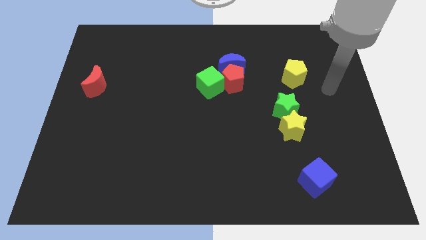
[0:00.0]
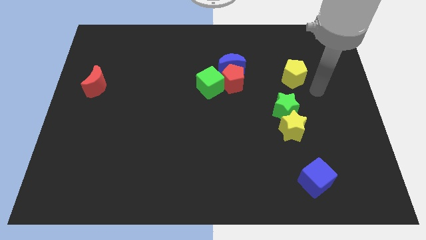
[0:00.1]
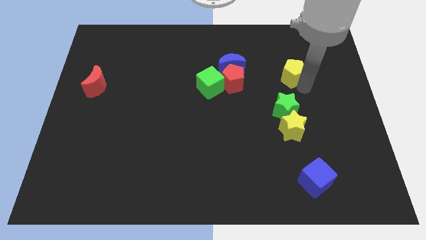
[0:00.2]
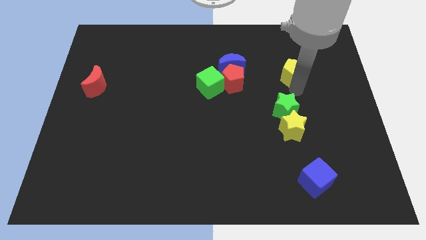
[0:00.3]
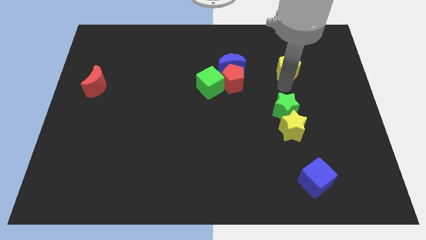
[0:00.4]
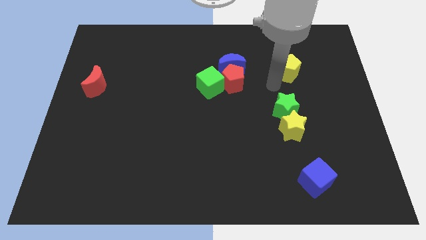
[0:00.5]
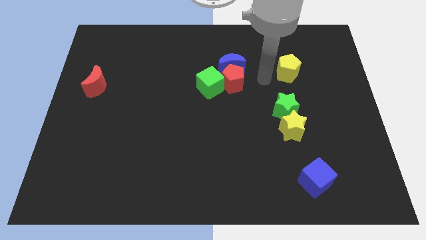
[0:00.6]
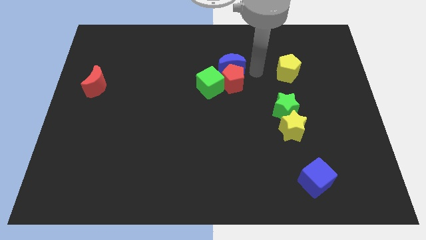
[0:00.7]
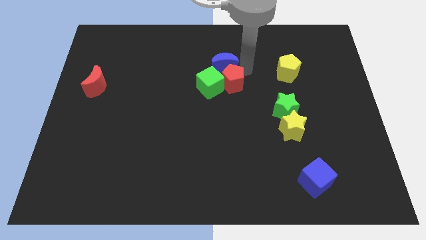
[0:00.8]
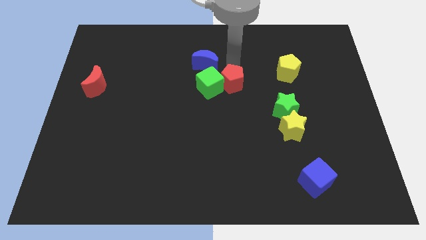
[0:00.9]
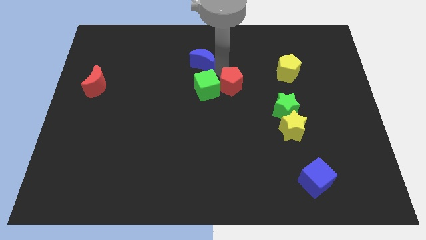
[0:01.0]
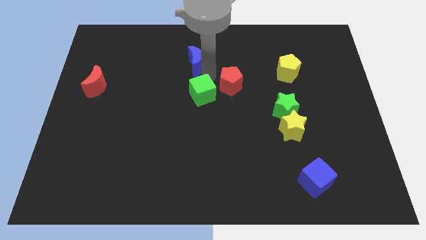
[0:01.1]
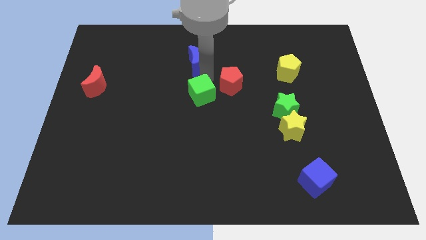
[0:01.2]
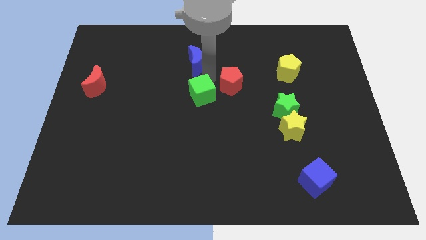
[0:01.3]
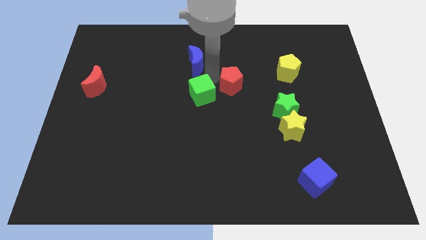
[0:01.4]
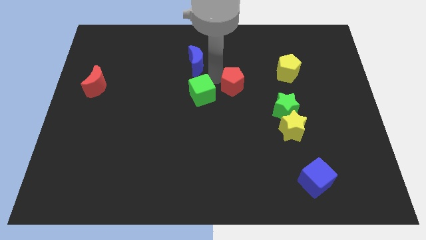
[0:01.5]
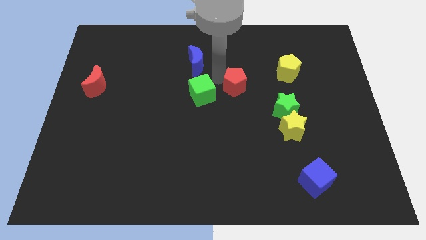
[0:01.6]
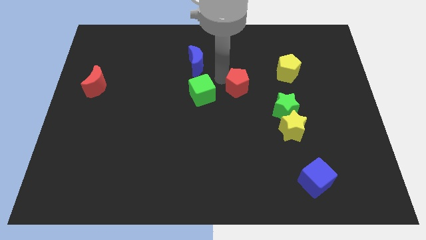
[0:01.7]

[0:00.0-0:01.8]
separate the red pentagon from the blue moon and green cube

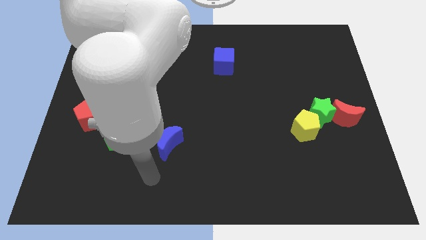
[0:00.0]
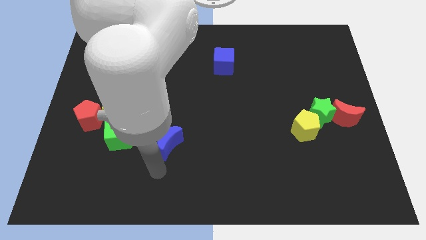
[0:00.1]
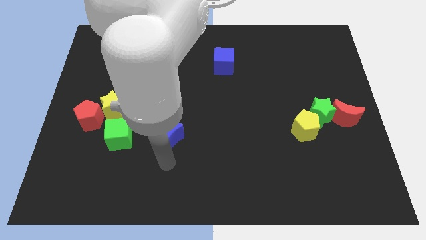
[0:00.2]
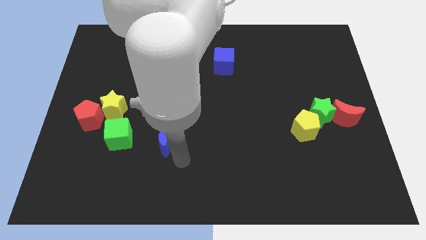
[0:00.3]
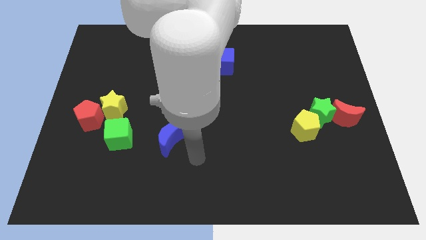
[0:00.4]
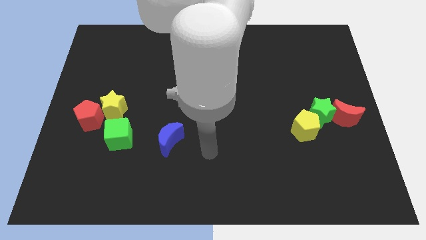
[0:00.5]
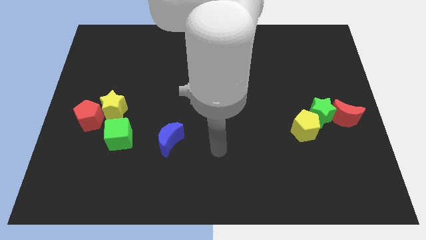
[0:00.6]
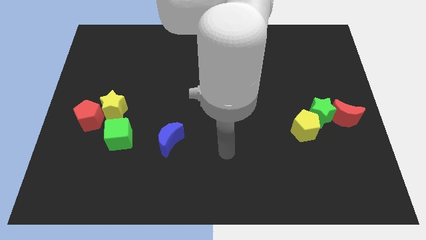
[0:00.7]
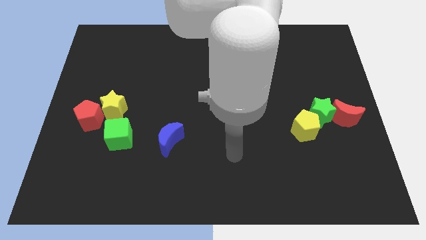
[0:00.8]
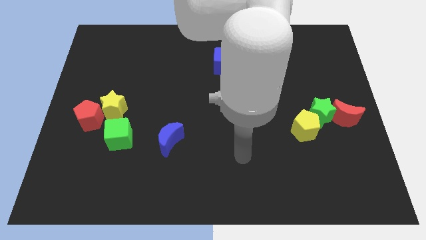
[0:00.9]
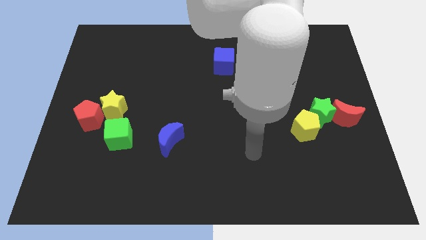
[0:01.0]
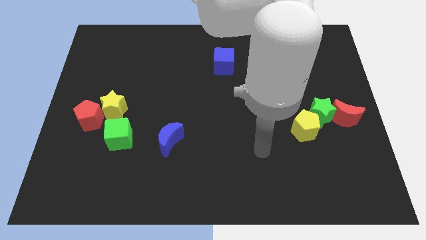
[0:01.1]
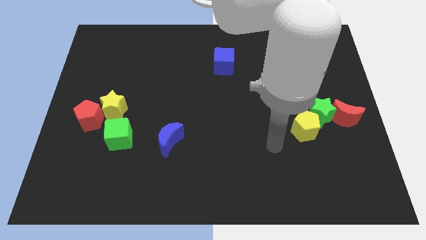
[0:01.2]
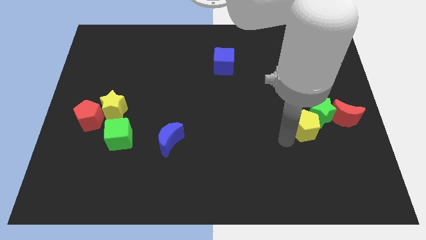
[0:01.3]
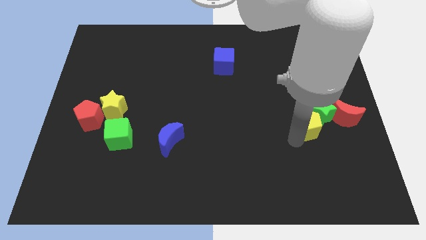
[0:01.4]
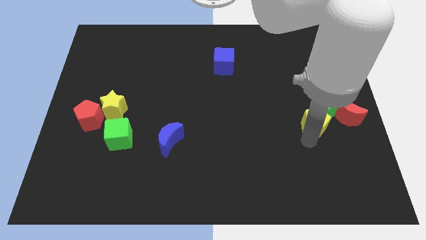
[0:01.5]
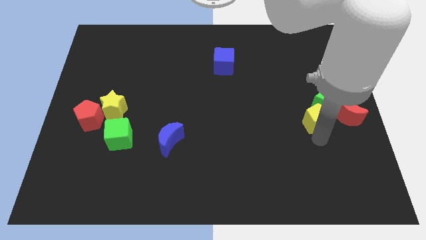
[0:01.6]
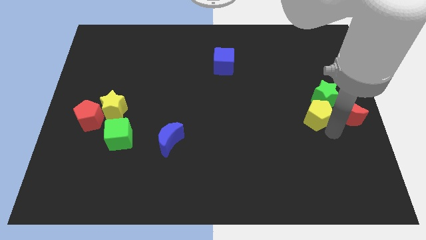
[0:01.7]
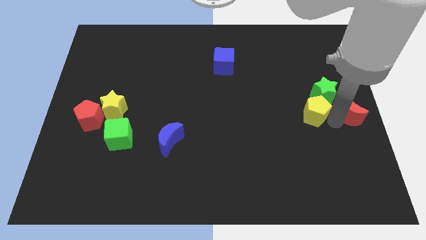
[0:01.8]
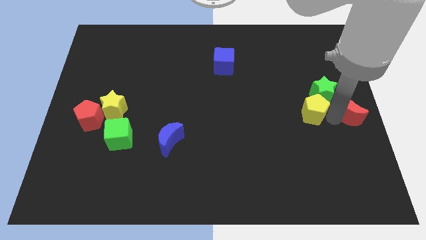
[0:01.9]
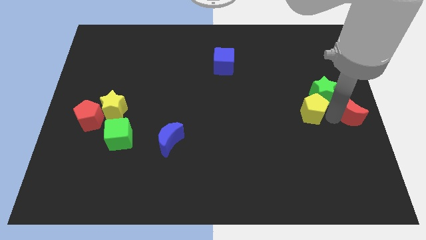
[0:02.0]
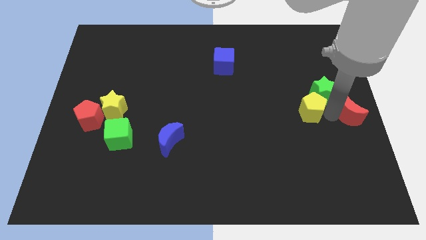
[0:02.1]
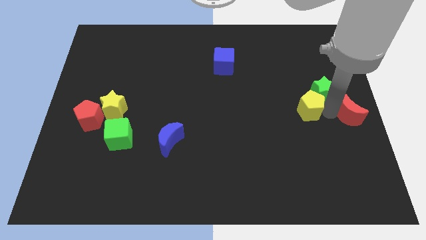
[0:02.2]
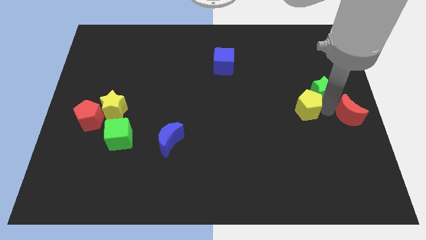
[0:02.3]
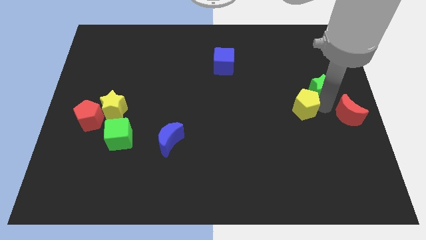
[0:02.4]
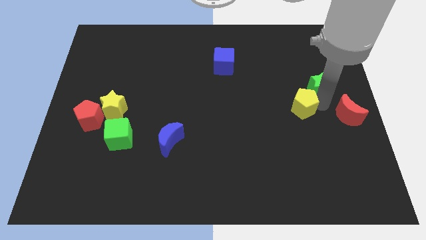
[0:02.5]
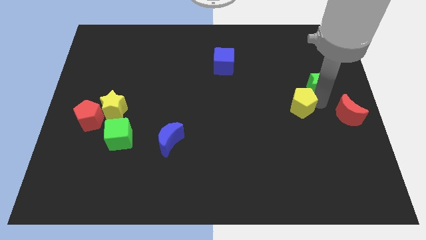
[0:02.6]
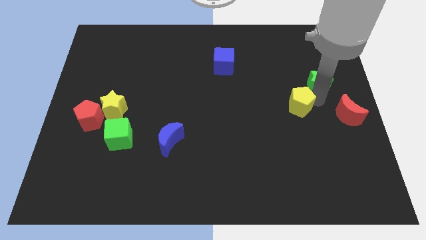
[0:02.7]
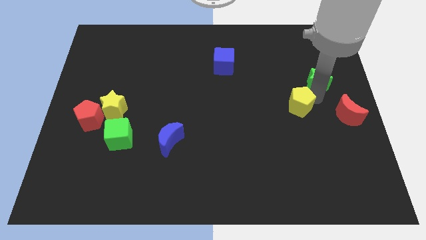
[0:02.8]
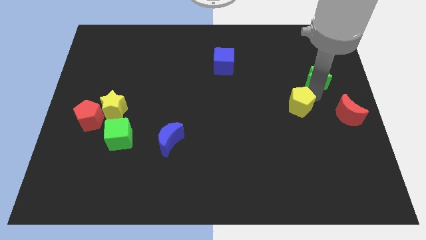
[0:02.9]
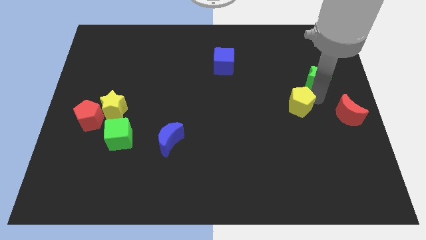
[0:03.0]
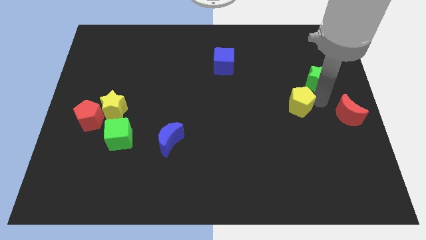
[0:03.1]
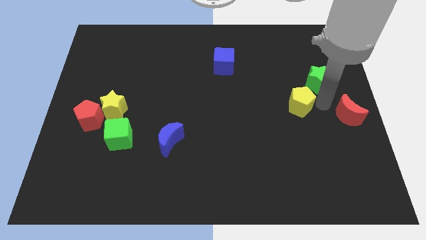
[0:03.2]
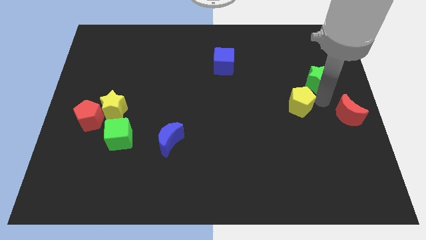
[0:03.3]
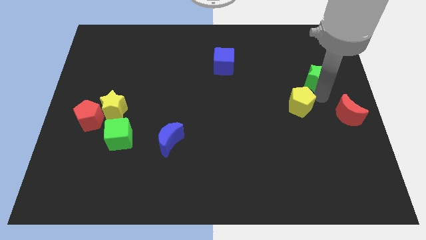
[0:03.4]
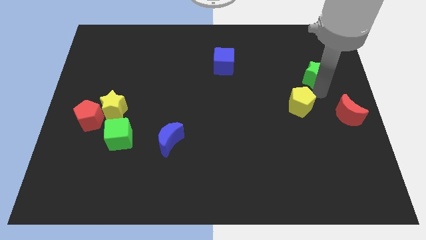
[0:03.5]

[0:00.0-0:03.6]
move the green star away from the red moon and yellow pentagon

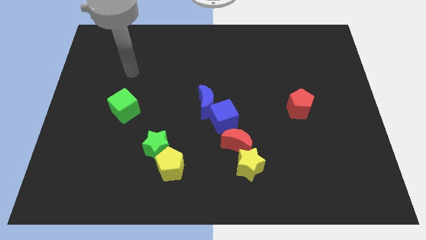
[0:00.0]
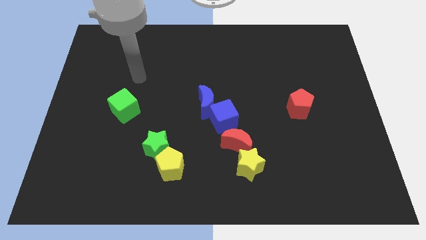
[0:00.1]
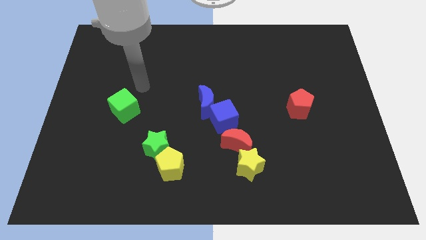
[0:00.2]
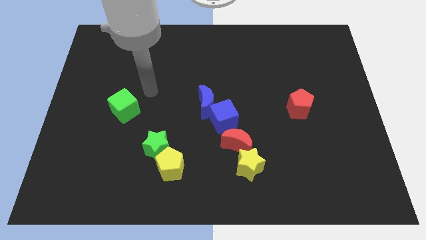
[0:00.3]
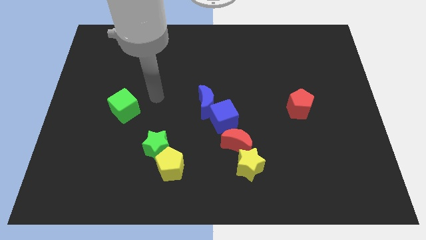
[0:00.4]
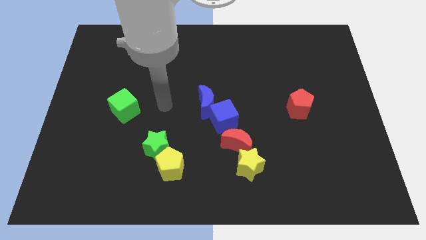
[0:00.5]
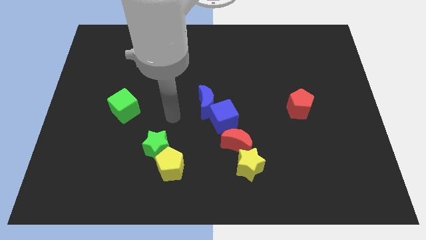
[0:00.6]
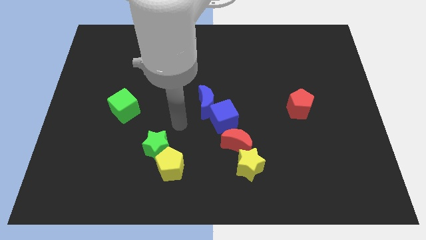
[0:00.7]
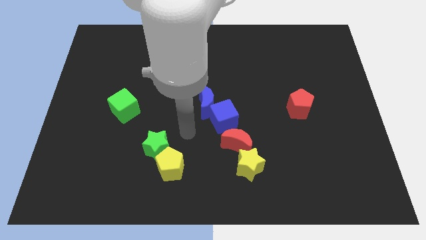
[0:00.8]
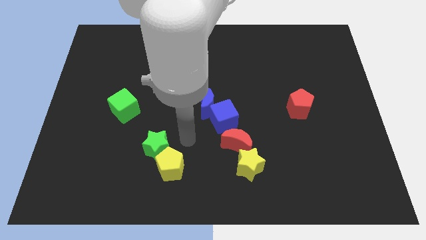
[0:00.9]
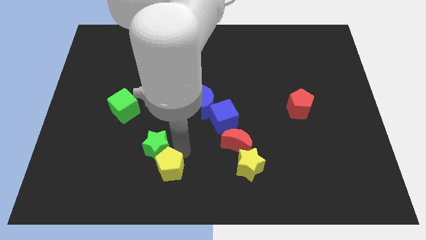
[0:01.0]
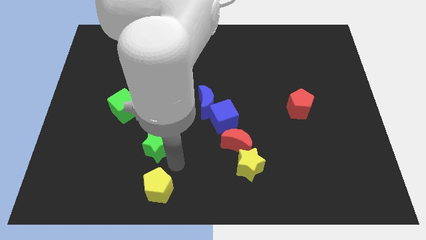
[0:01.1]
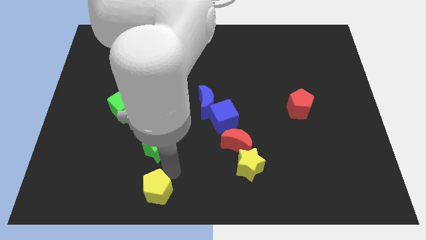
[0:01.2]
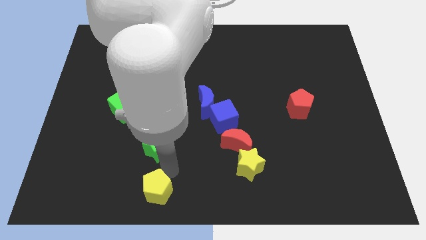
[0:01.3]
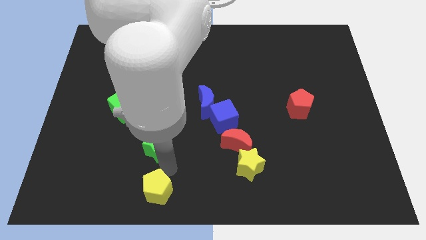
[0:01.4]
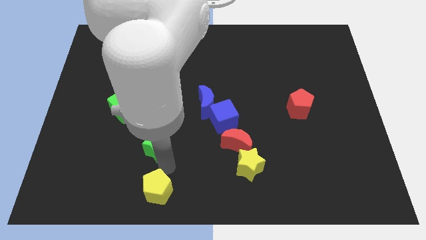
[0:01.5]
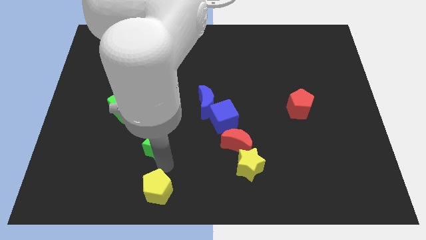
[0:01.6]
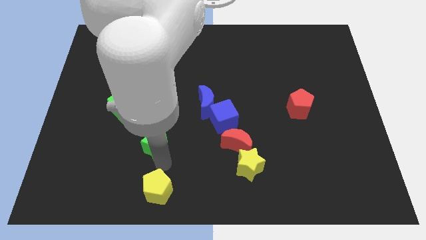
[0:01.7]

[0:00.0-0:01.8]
move the green star away from the yellow pentagon

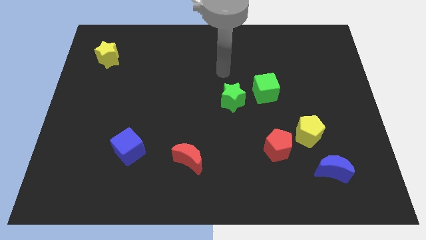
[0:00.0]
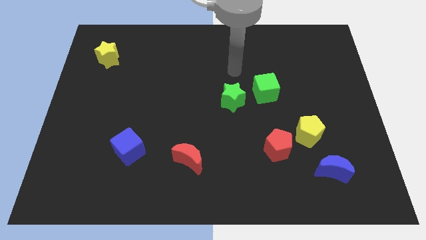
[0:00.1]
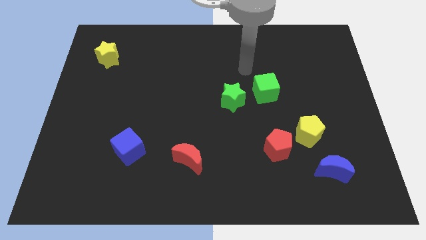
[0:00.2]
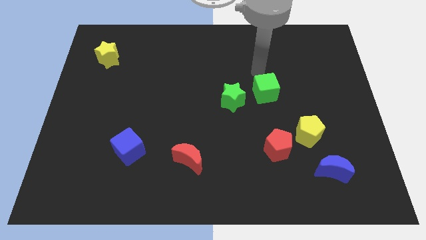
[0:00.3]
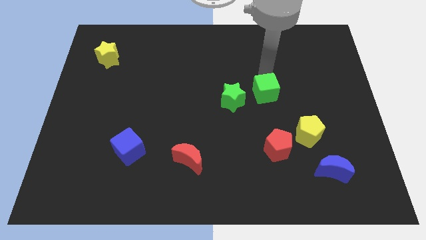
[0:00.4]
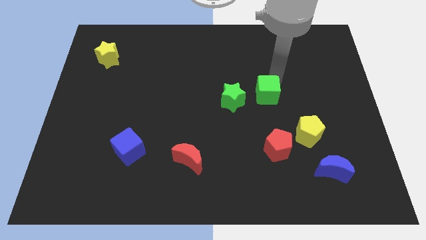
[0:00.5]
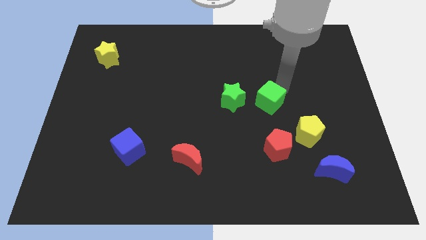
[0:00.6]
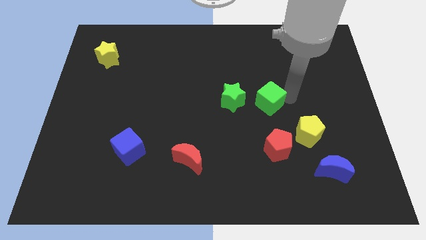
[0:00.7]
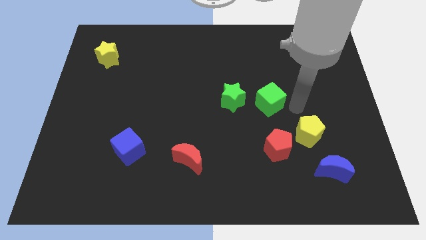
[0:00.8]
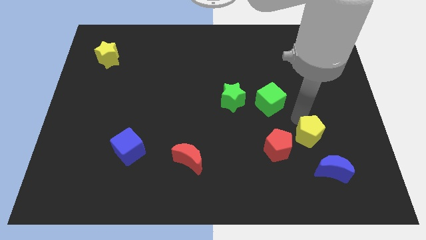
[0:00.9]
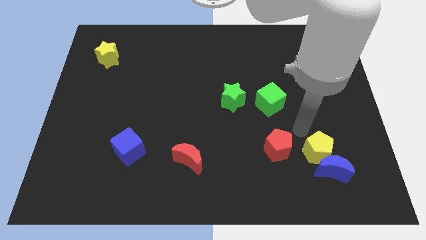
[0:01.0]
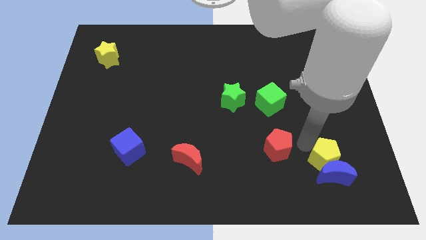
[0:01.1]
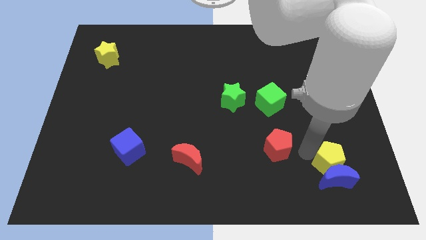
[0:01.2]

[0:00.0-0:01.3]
move the red pentagon away from the yellow pentagon

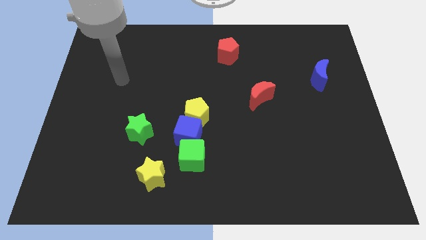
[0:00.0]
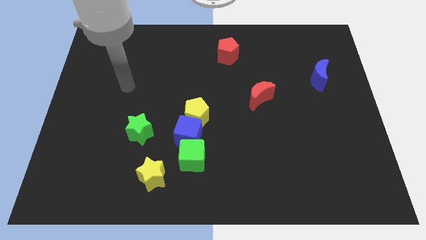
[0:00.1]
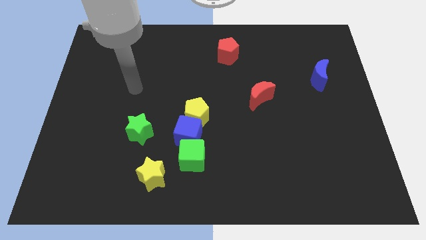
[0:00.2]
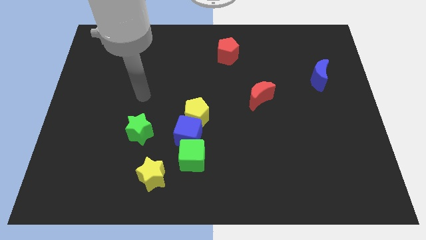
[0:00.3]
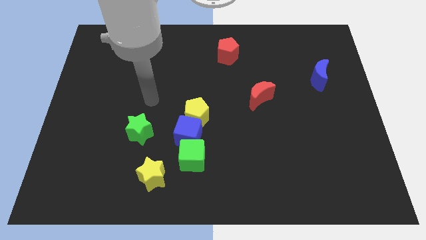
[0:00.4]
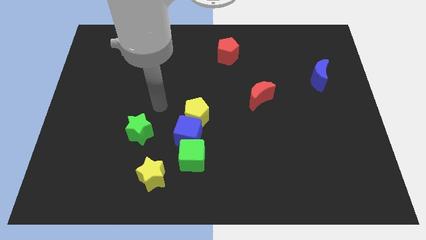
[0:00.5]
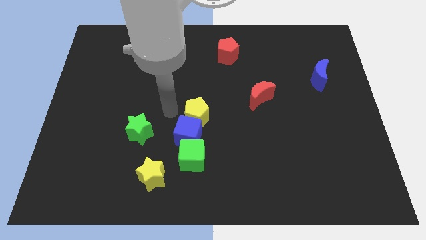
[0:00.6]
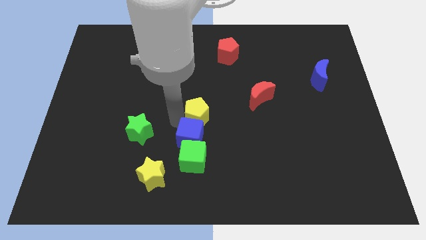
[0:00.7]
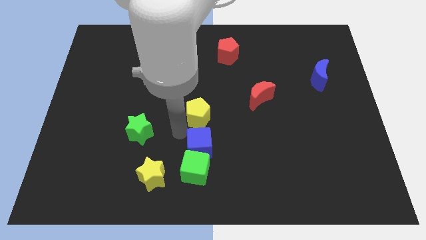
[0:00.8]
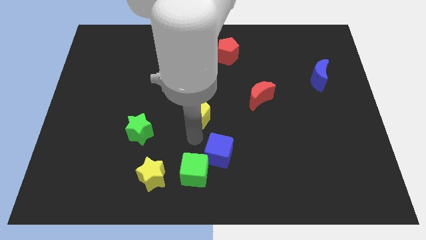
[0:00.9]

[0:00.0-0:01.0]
pull the yellow pentagon apart from the blue cube
